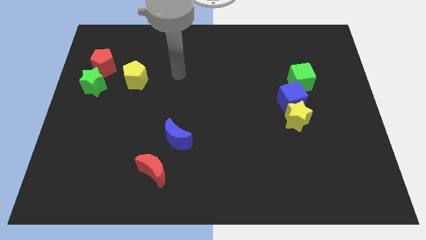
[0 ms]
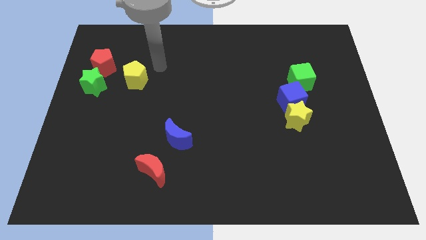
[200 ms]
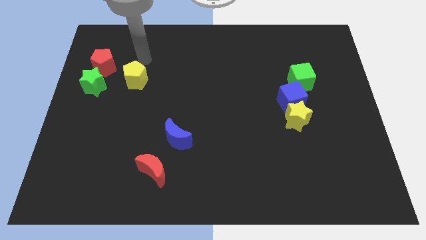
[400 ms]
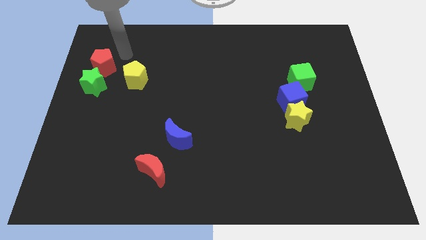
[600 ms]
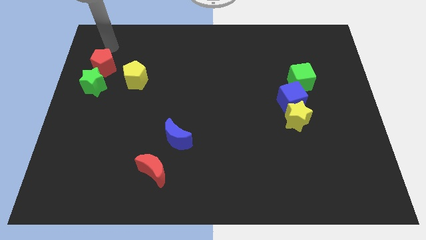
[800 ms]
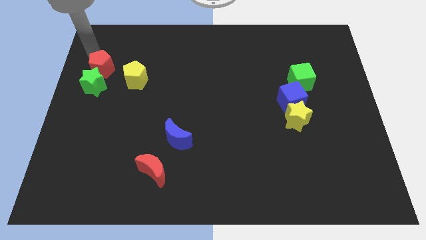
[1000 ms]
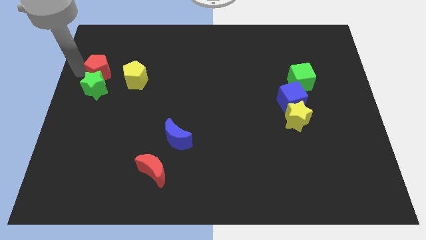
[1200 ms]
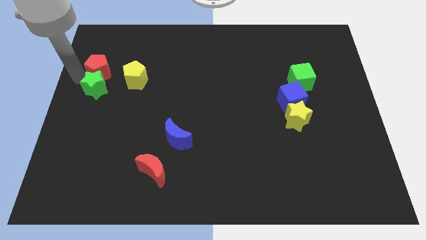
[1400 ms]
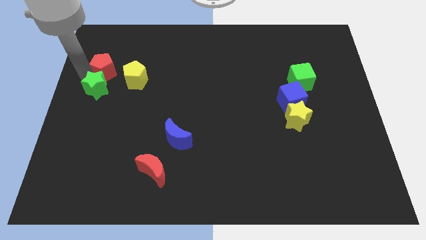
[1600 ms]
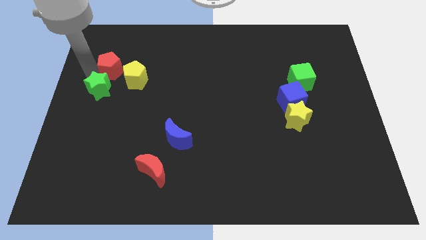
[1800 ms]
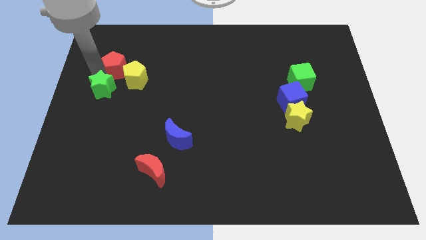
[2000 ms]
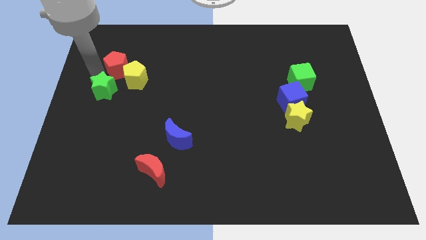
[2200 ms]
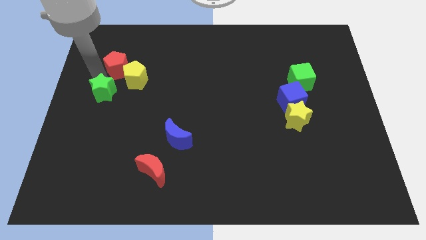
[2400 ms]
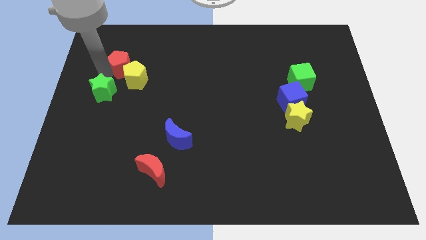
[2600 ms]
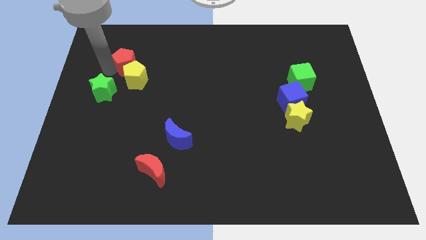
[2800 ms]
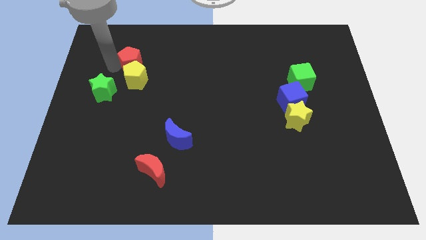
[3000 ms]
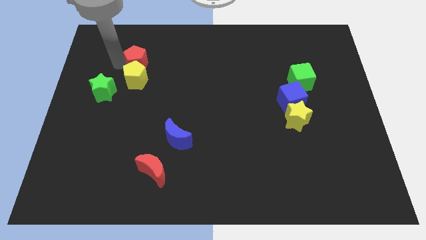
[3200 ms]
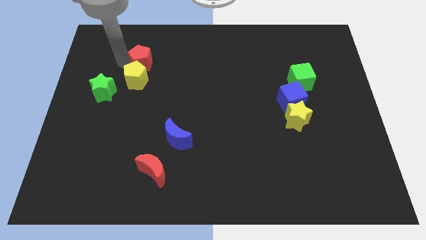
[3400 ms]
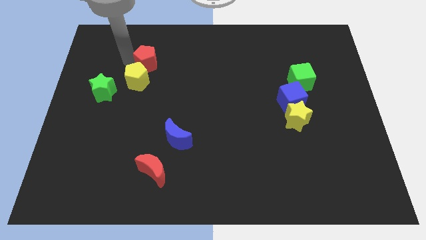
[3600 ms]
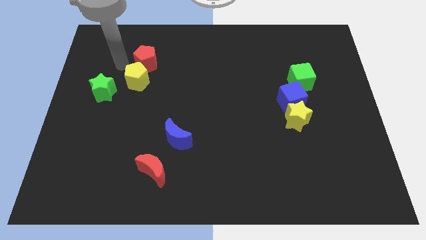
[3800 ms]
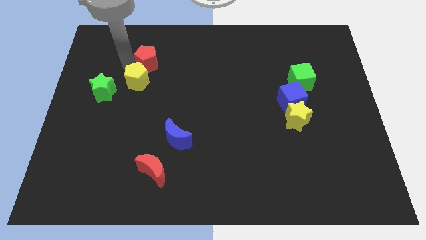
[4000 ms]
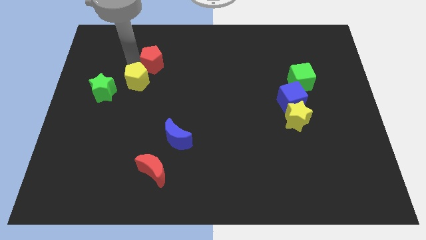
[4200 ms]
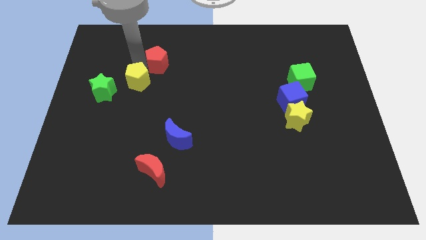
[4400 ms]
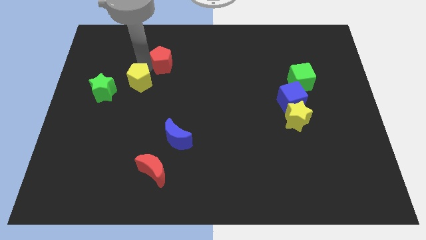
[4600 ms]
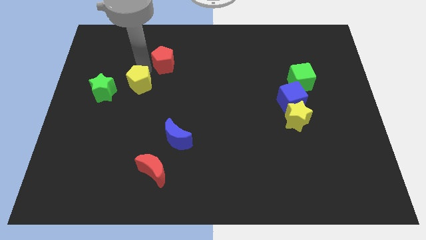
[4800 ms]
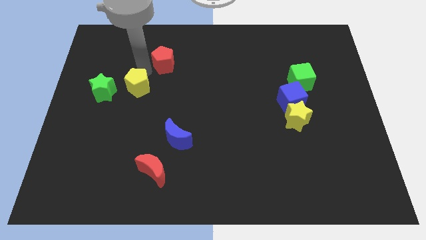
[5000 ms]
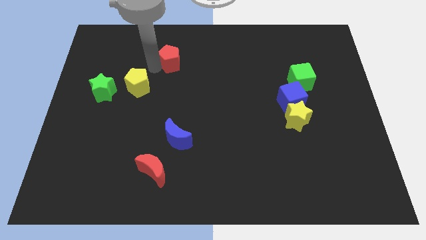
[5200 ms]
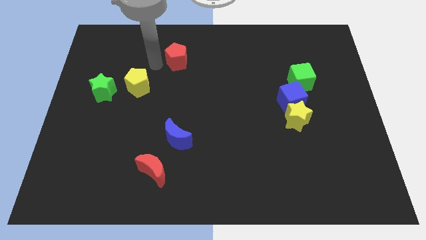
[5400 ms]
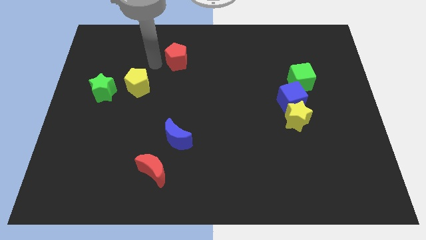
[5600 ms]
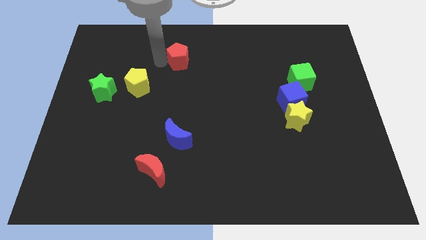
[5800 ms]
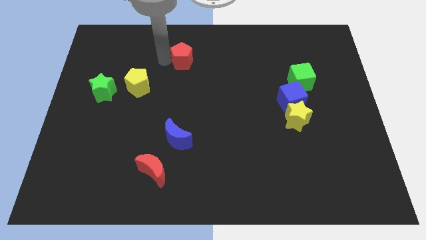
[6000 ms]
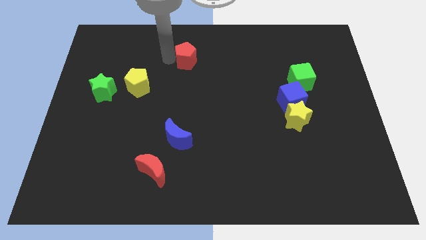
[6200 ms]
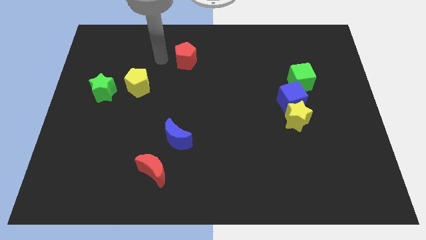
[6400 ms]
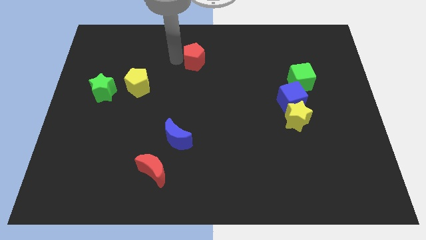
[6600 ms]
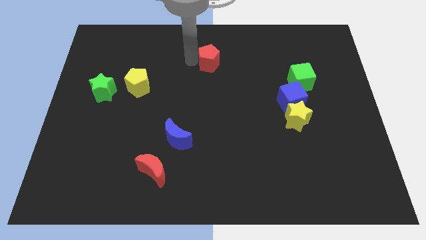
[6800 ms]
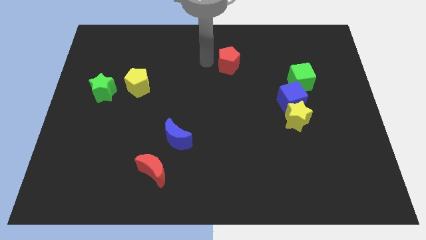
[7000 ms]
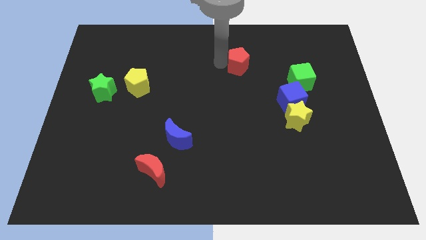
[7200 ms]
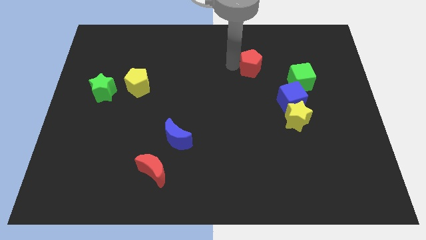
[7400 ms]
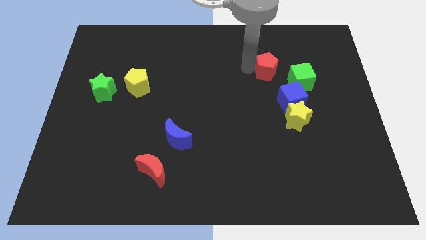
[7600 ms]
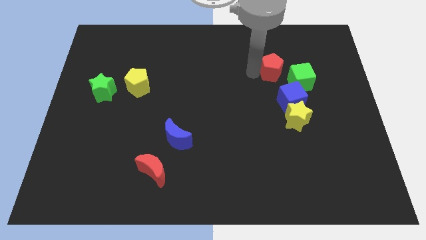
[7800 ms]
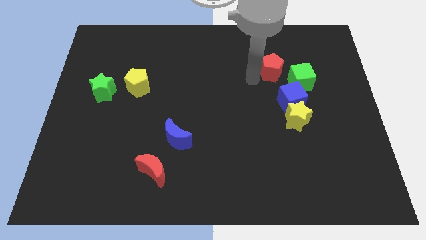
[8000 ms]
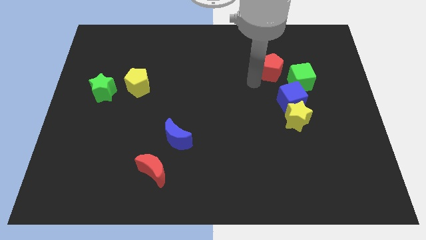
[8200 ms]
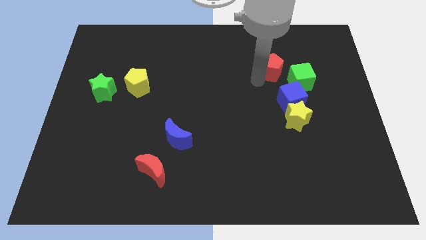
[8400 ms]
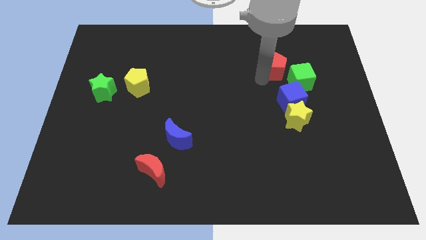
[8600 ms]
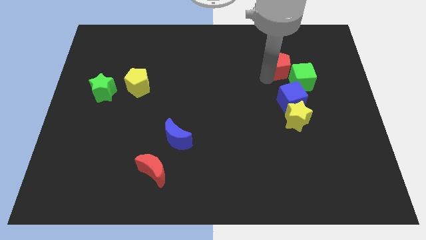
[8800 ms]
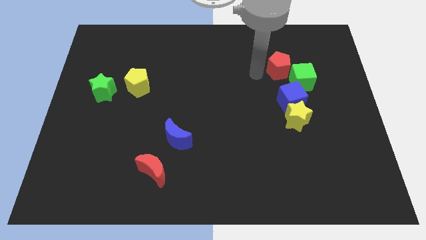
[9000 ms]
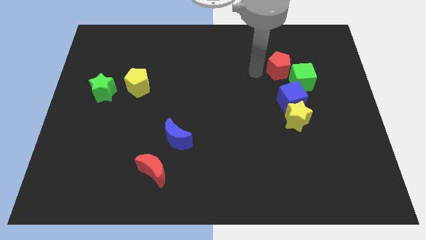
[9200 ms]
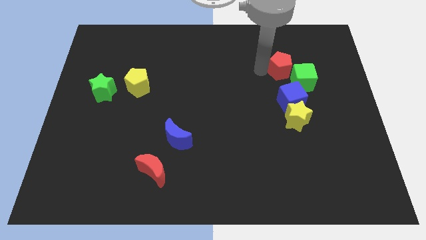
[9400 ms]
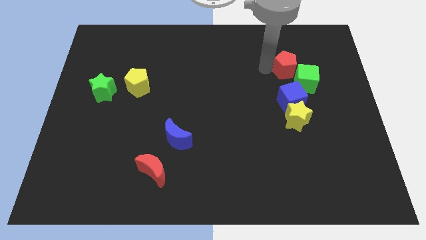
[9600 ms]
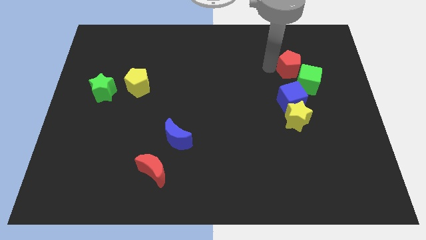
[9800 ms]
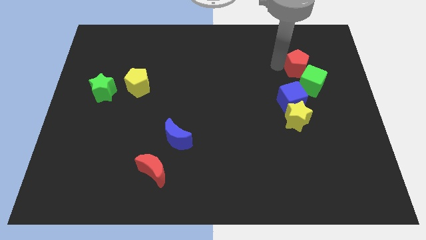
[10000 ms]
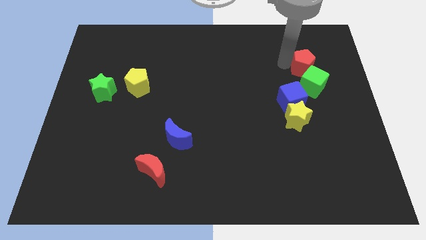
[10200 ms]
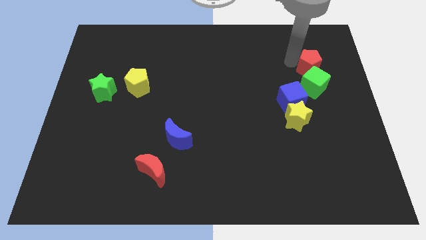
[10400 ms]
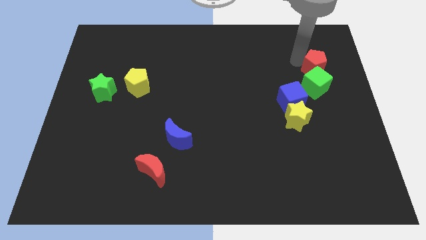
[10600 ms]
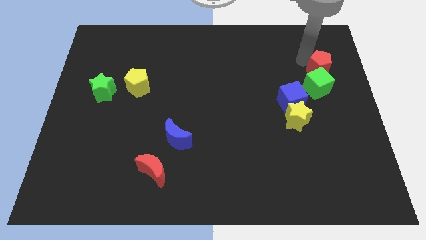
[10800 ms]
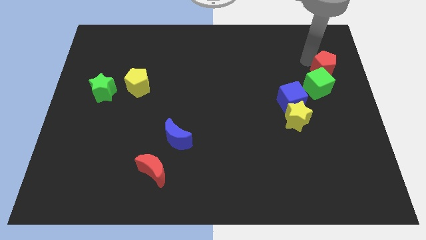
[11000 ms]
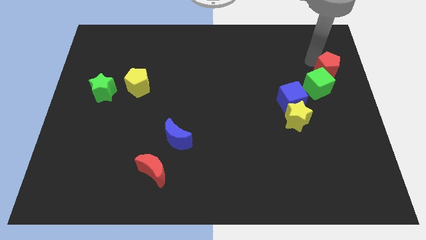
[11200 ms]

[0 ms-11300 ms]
push the red pentagon to the right side of the board

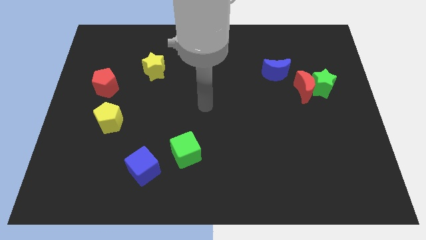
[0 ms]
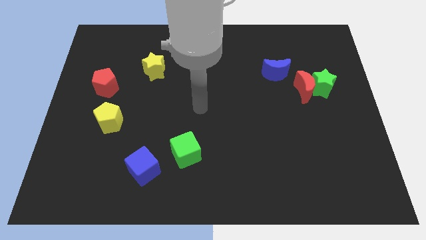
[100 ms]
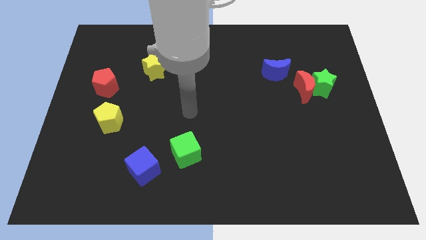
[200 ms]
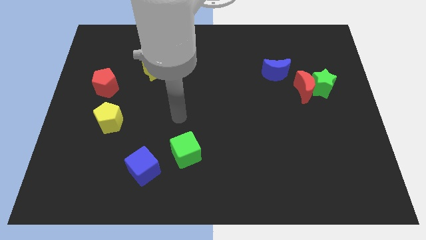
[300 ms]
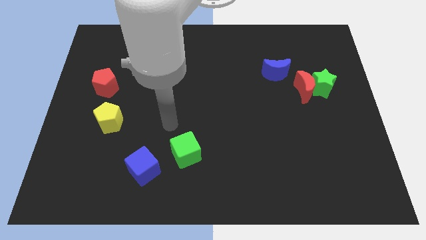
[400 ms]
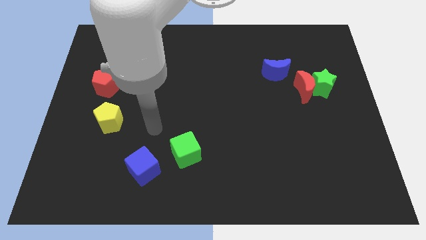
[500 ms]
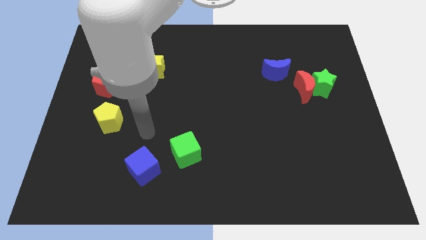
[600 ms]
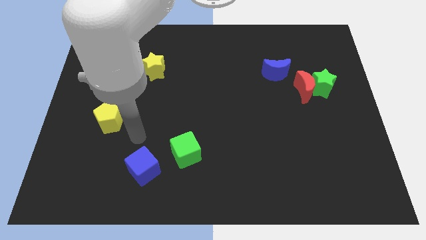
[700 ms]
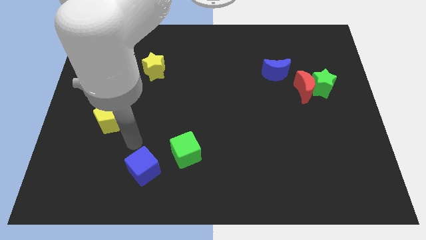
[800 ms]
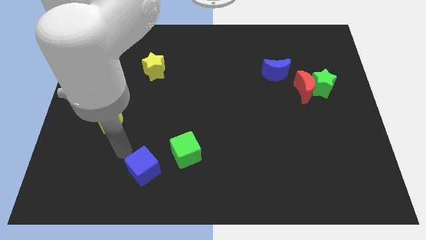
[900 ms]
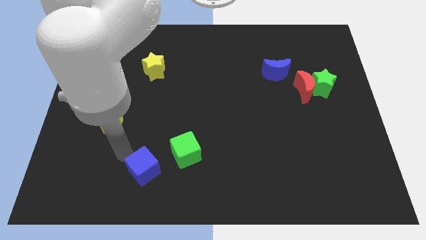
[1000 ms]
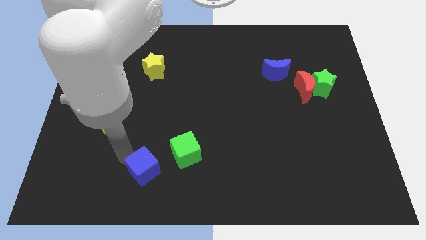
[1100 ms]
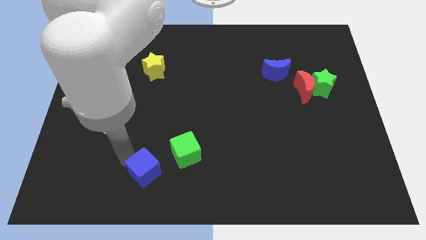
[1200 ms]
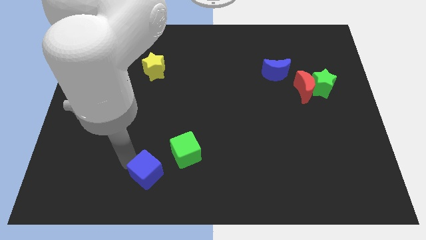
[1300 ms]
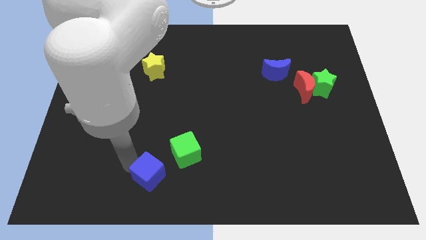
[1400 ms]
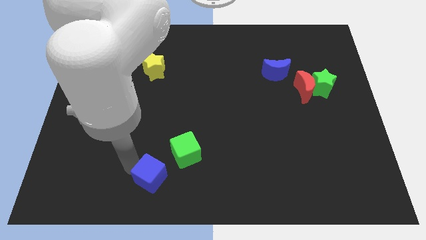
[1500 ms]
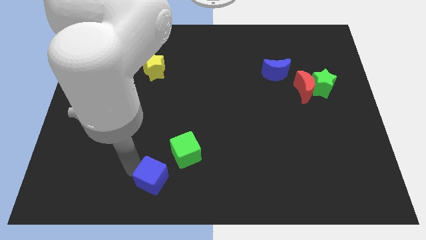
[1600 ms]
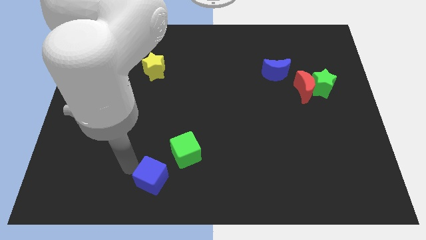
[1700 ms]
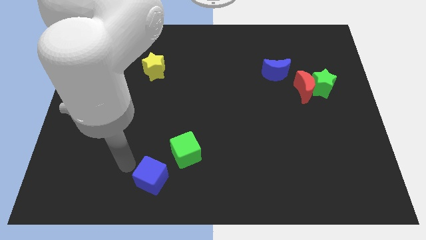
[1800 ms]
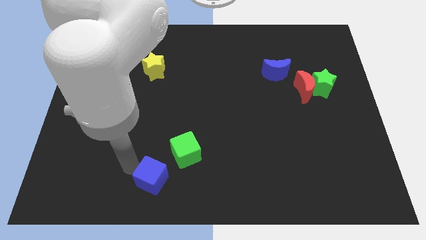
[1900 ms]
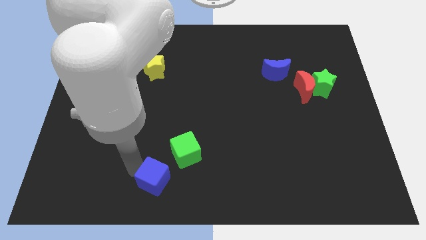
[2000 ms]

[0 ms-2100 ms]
move the blue cube to the bottom
